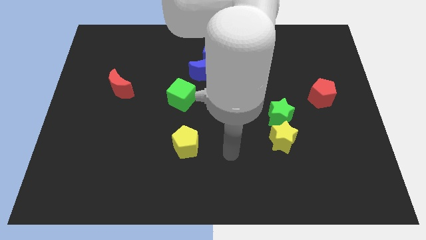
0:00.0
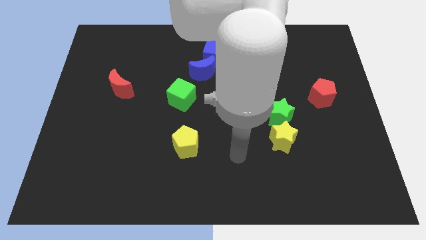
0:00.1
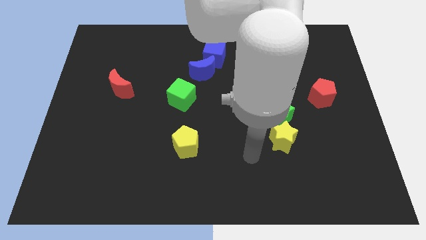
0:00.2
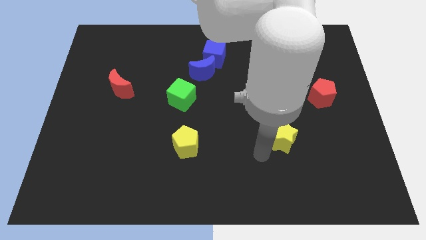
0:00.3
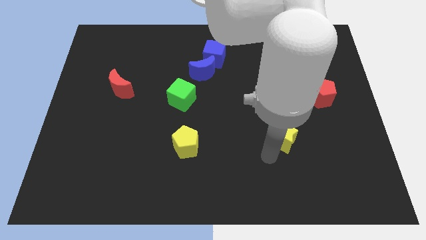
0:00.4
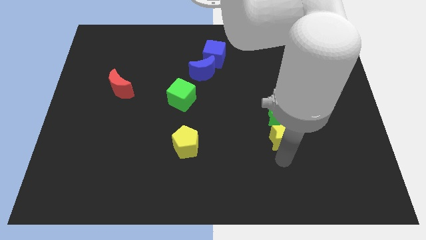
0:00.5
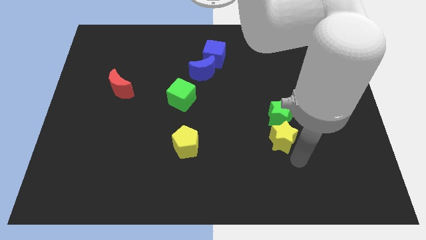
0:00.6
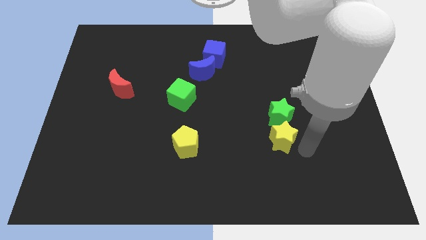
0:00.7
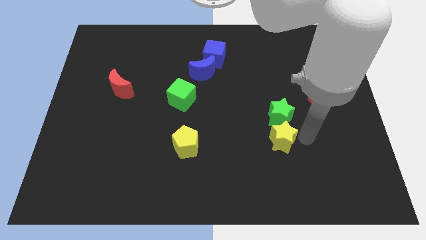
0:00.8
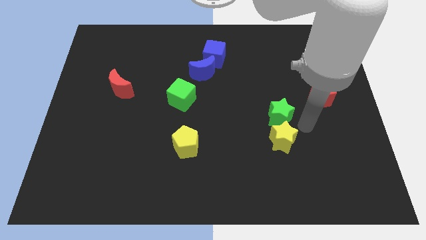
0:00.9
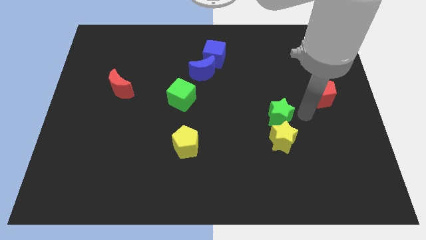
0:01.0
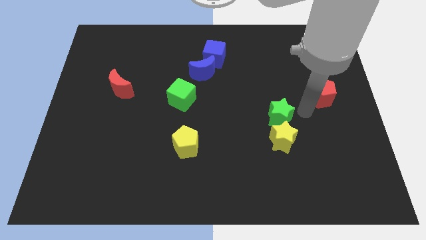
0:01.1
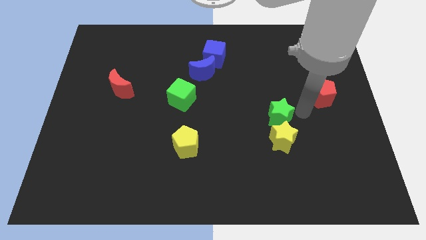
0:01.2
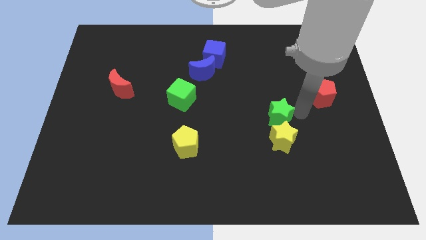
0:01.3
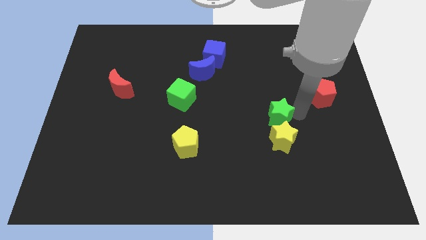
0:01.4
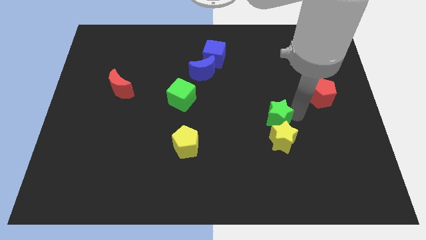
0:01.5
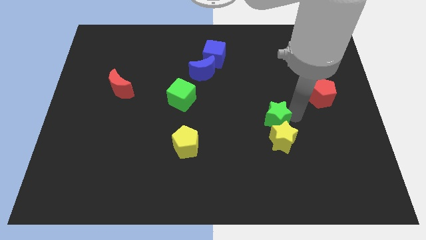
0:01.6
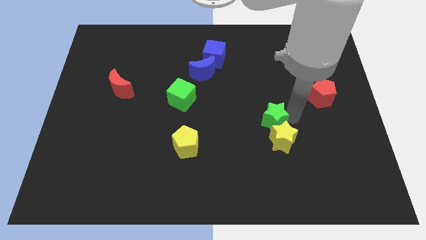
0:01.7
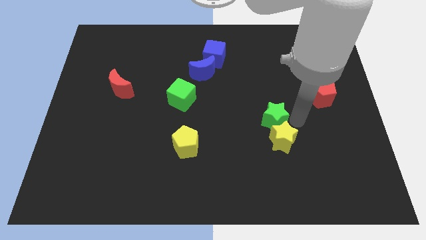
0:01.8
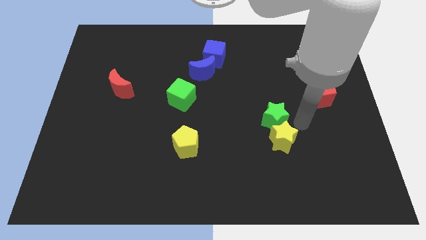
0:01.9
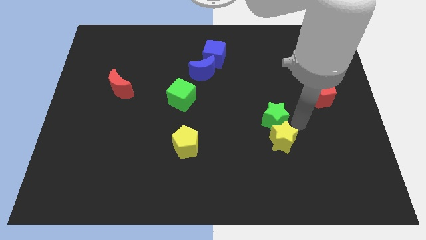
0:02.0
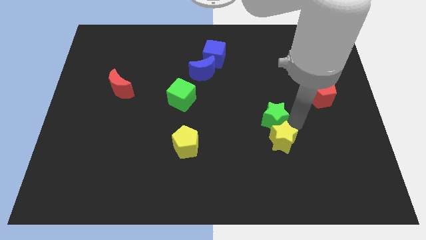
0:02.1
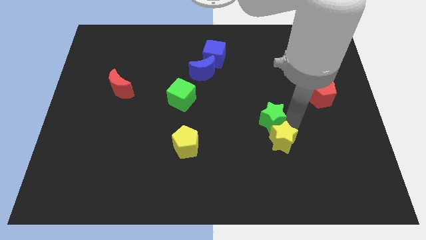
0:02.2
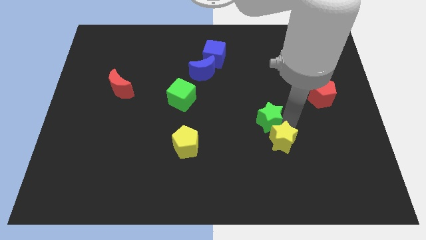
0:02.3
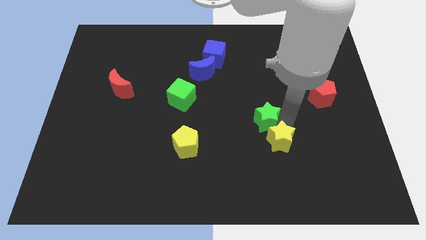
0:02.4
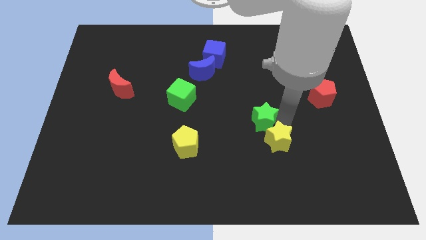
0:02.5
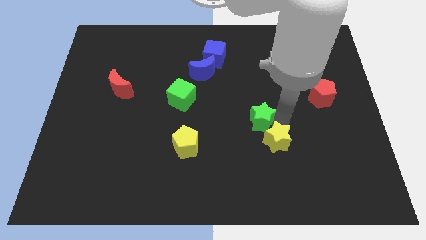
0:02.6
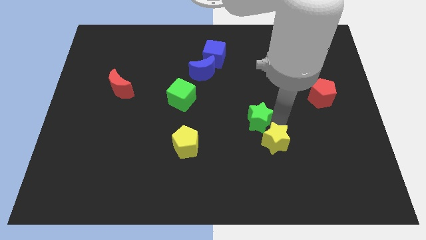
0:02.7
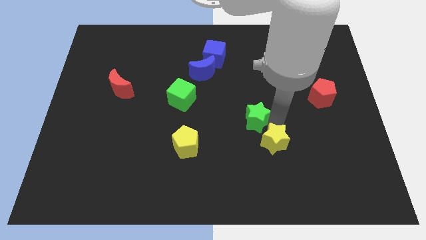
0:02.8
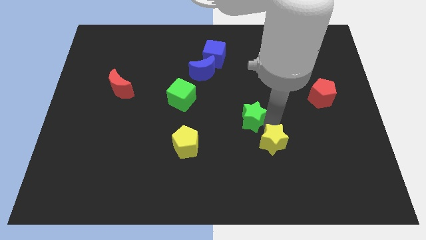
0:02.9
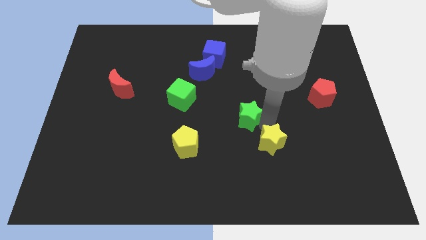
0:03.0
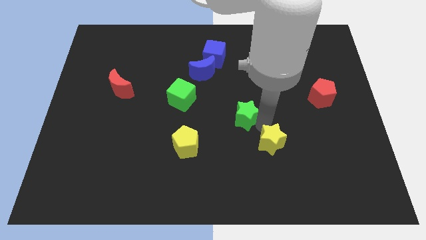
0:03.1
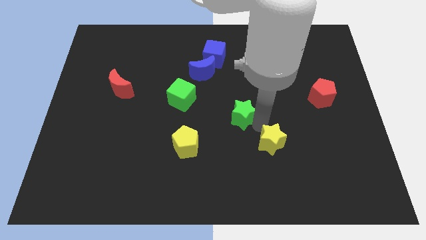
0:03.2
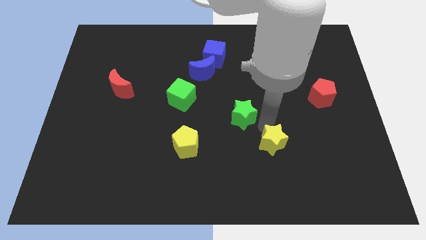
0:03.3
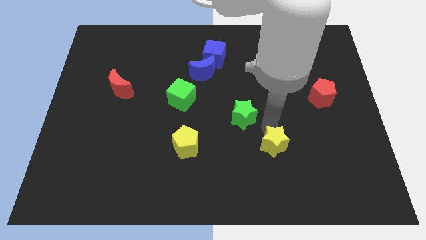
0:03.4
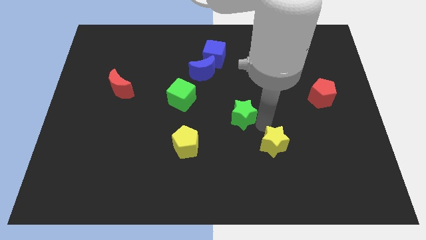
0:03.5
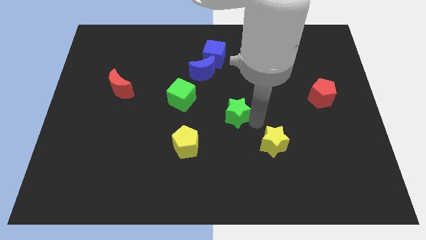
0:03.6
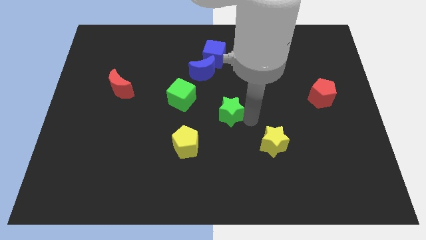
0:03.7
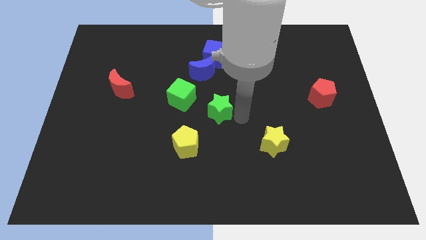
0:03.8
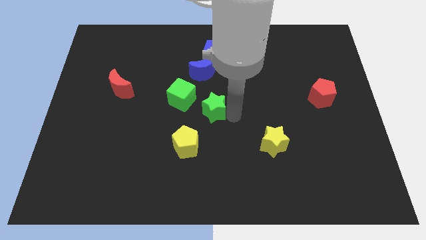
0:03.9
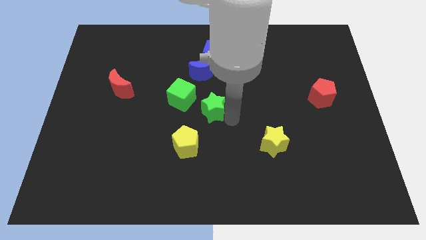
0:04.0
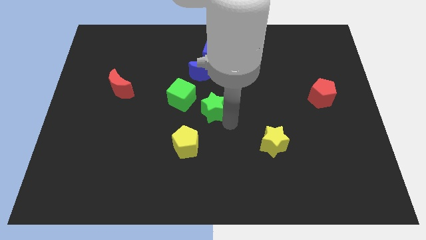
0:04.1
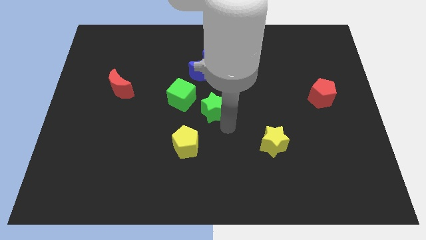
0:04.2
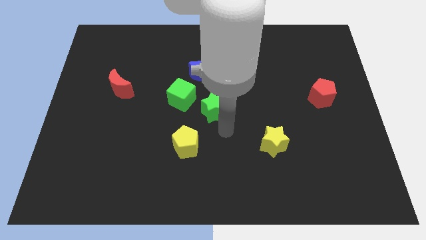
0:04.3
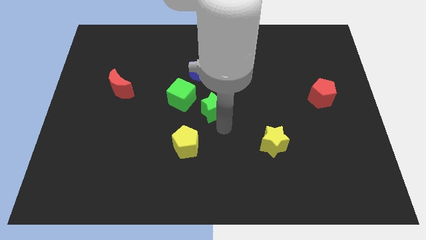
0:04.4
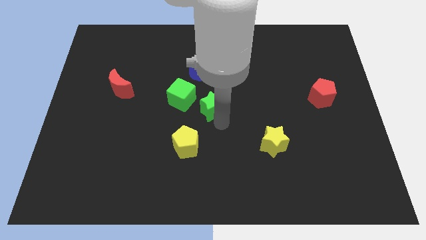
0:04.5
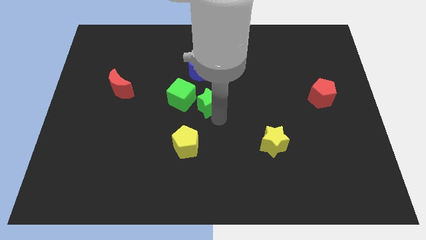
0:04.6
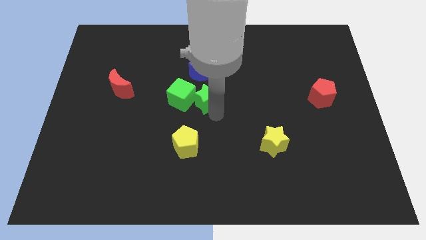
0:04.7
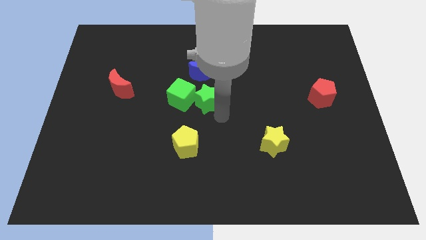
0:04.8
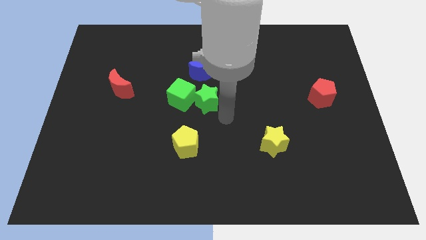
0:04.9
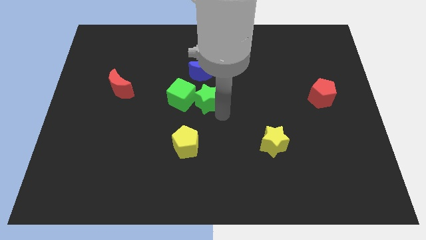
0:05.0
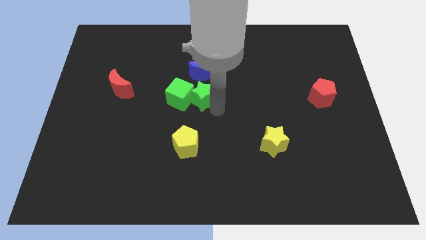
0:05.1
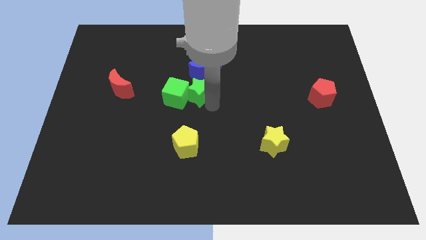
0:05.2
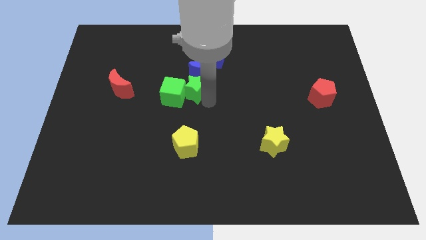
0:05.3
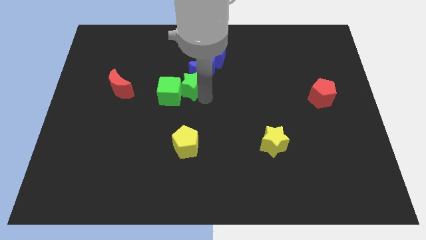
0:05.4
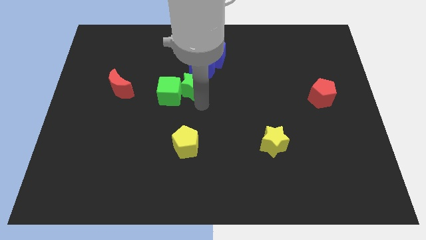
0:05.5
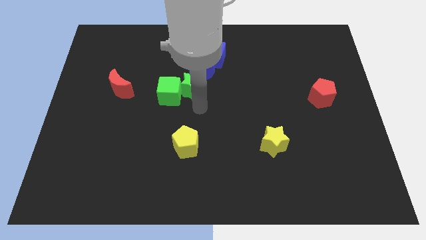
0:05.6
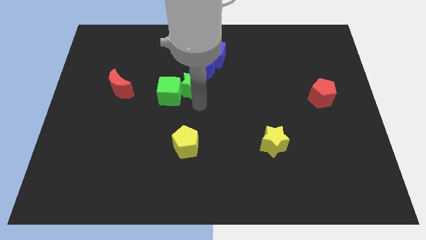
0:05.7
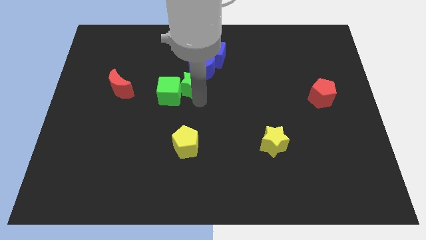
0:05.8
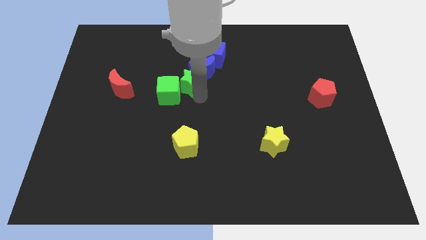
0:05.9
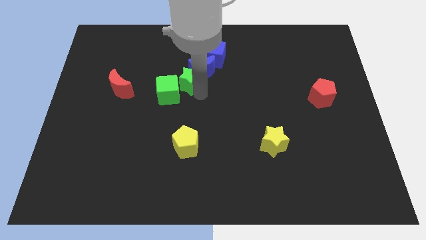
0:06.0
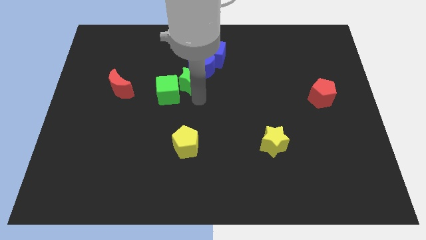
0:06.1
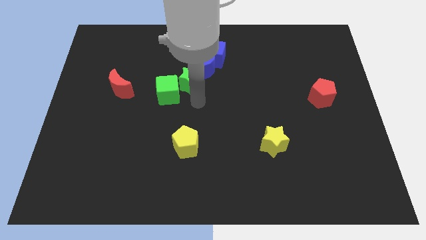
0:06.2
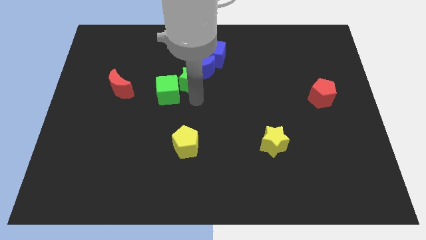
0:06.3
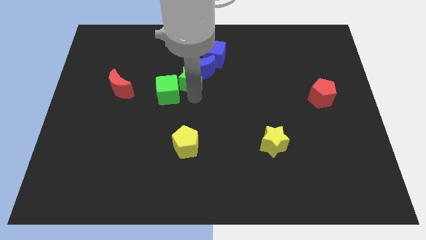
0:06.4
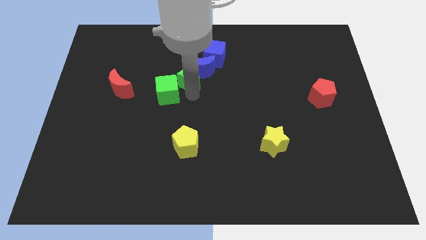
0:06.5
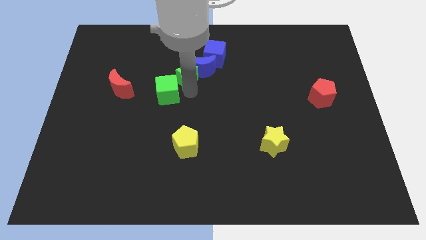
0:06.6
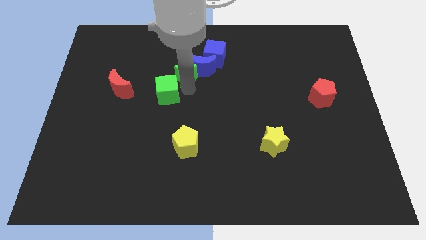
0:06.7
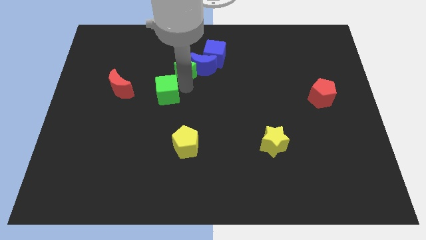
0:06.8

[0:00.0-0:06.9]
push the green star to the top left side of the blue moon

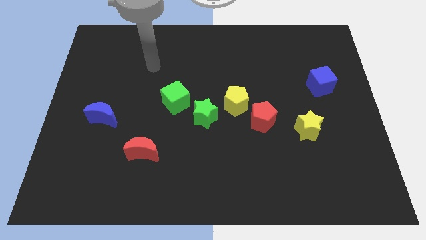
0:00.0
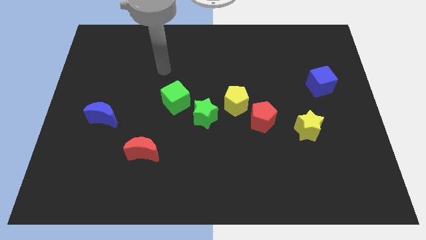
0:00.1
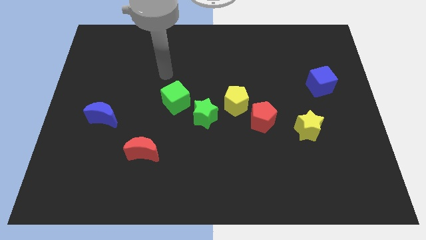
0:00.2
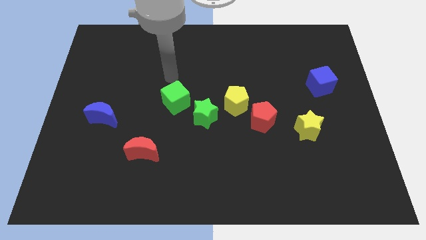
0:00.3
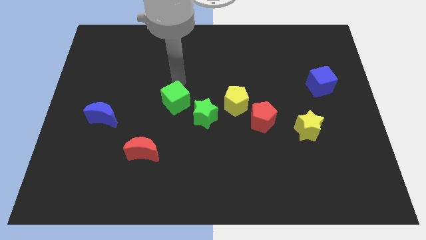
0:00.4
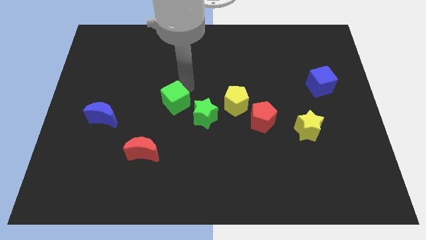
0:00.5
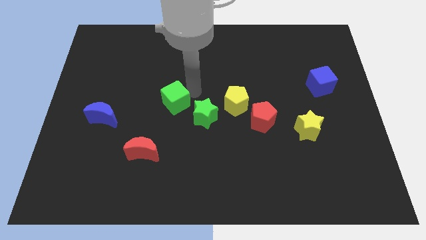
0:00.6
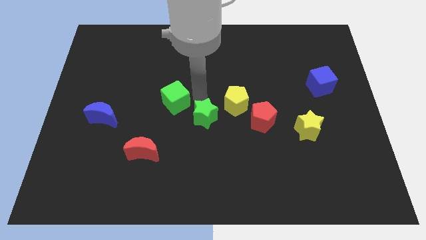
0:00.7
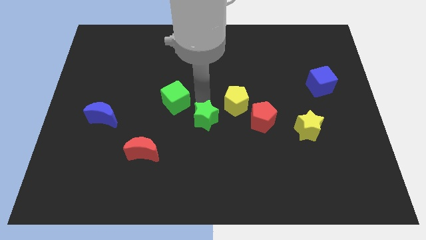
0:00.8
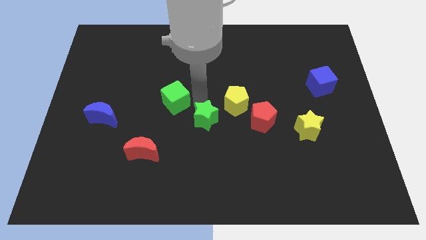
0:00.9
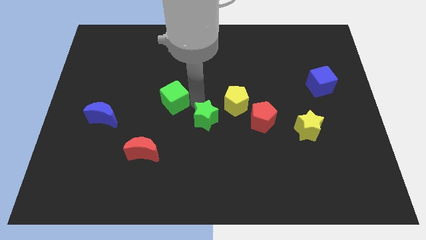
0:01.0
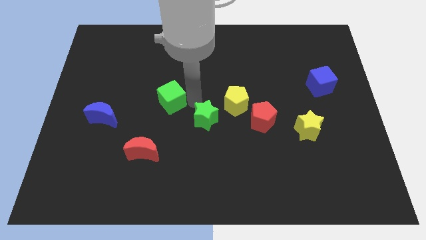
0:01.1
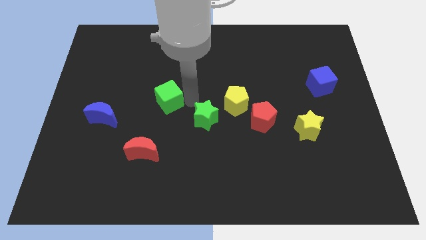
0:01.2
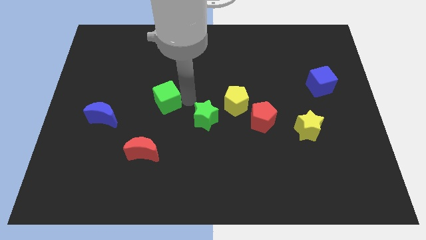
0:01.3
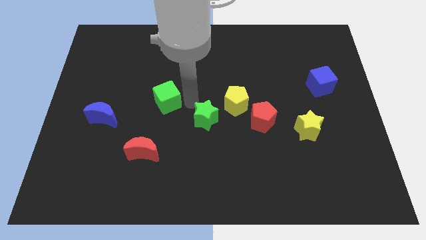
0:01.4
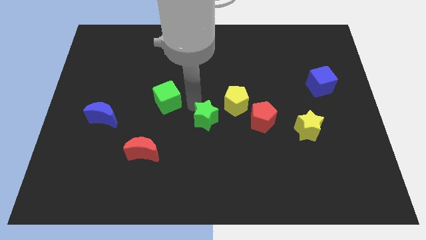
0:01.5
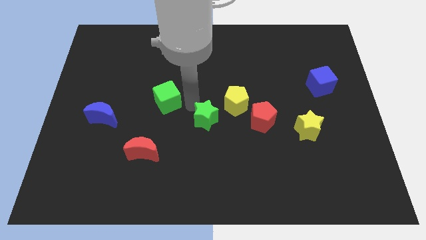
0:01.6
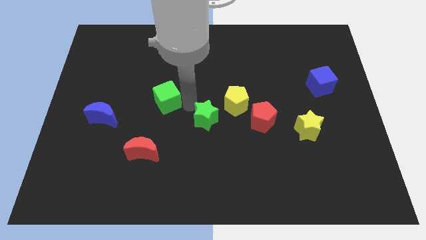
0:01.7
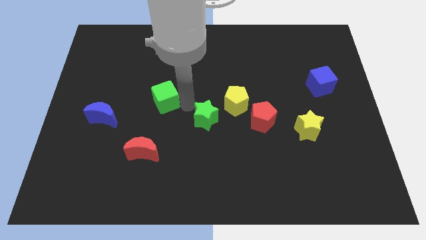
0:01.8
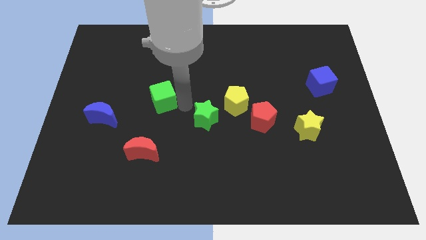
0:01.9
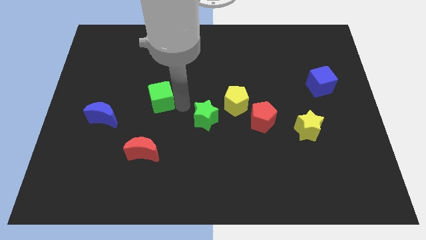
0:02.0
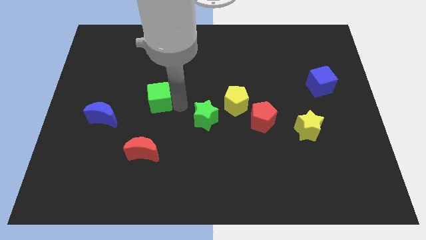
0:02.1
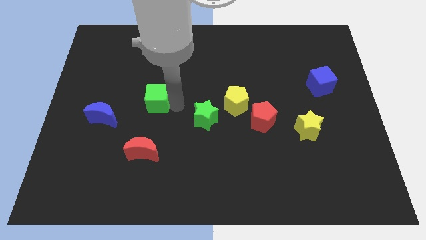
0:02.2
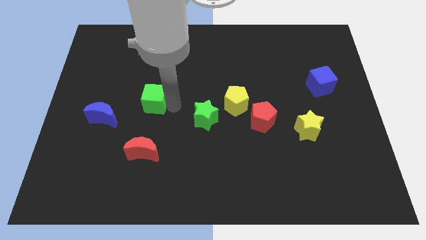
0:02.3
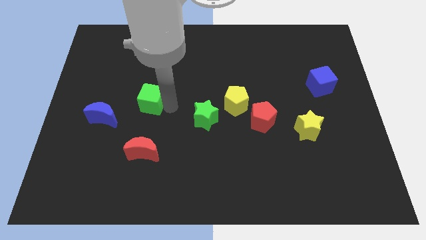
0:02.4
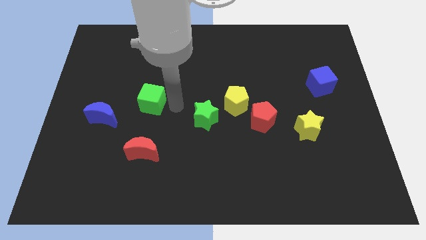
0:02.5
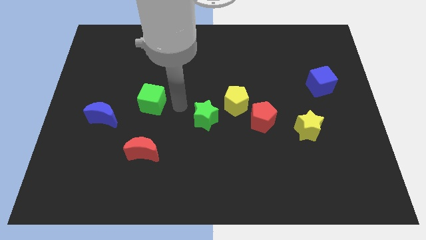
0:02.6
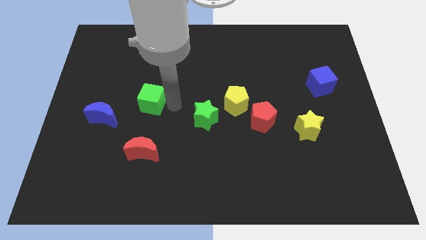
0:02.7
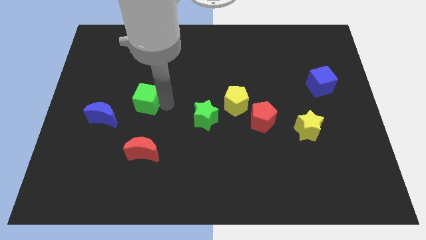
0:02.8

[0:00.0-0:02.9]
slide the green cube to the top right of the blue moon
